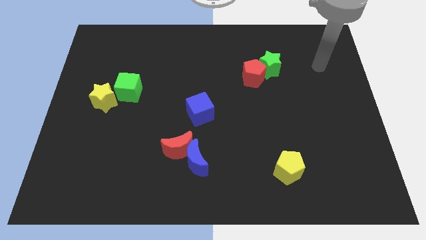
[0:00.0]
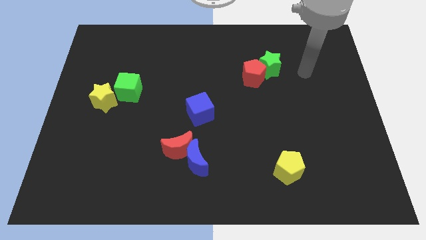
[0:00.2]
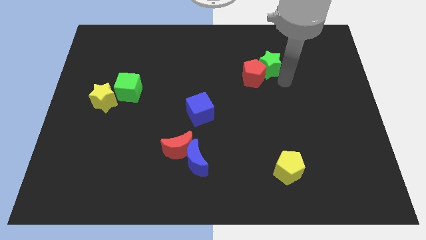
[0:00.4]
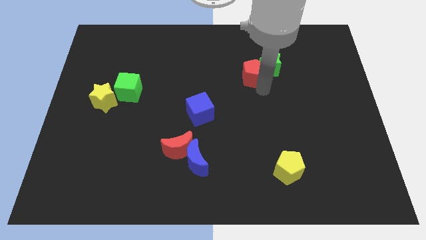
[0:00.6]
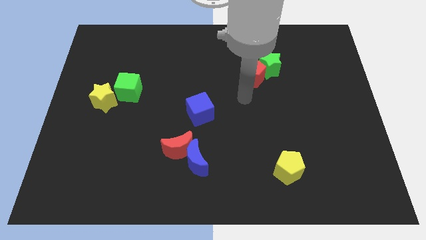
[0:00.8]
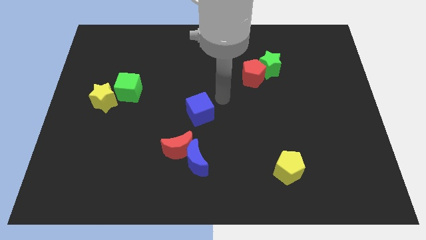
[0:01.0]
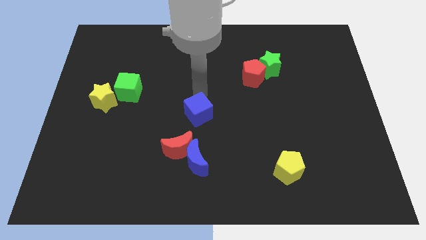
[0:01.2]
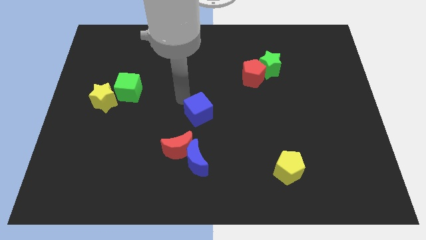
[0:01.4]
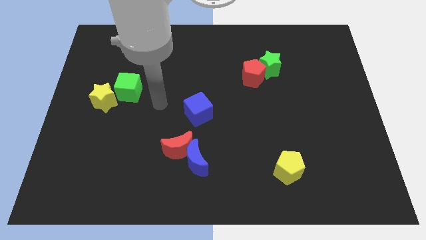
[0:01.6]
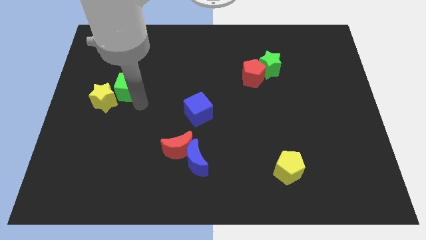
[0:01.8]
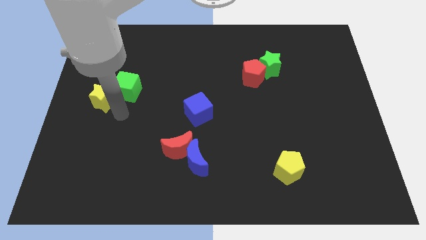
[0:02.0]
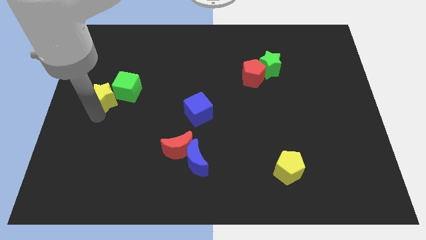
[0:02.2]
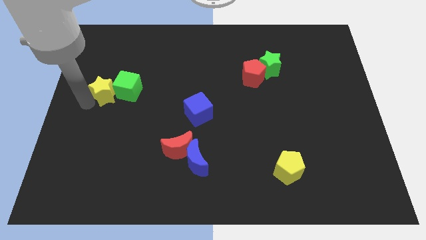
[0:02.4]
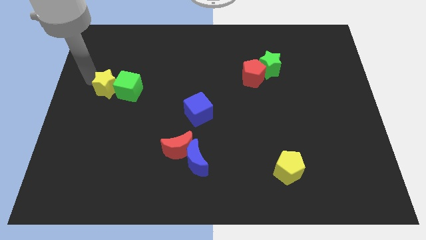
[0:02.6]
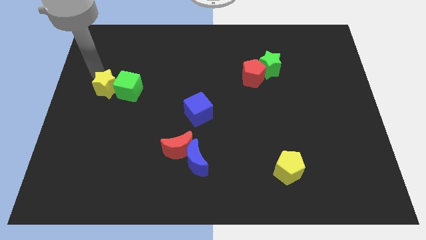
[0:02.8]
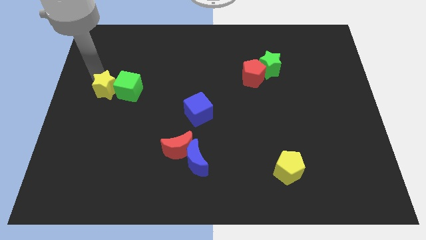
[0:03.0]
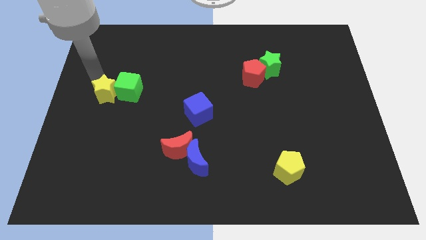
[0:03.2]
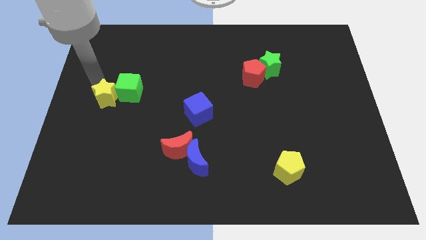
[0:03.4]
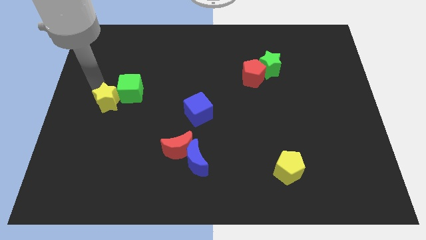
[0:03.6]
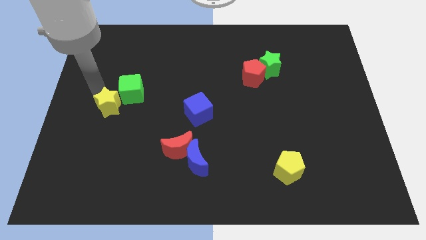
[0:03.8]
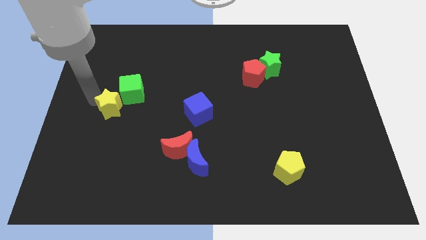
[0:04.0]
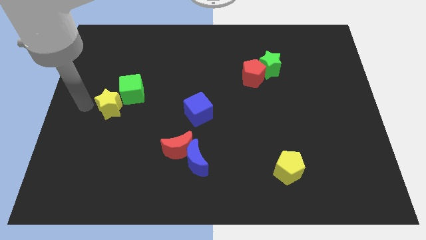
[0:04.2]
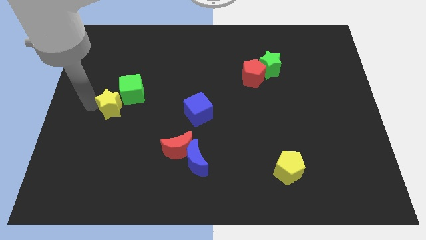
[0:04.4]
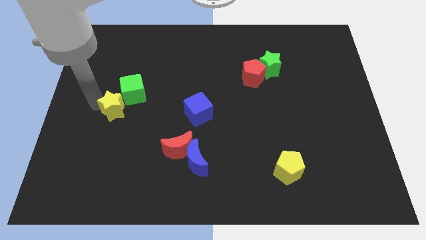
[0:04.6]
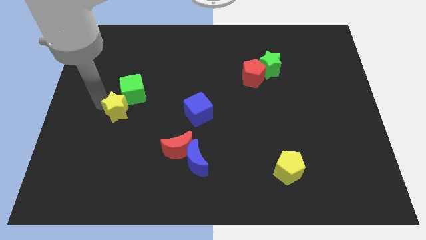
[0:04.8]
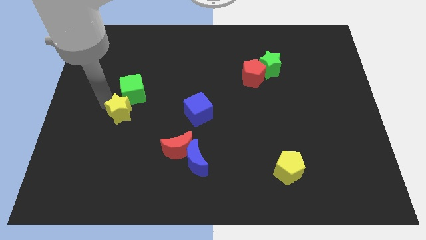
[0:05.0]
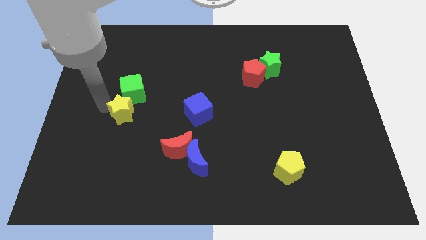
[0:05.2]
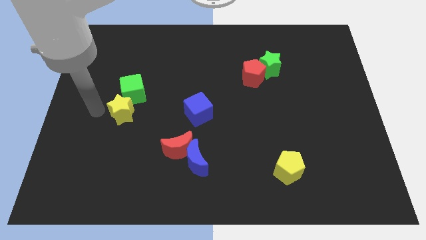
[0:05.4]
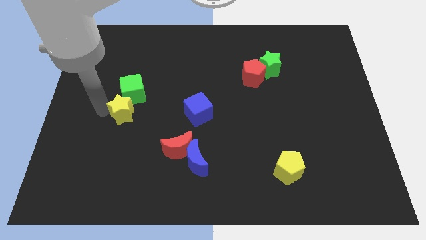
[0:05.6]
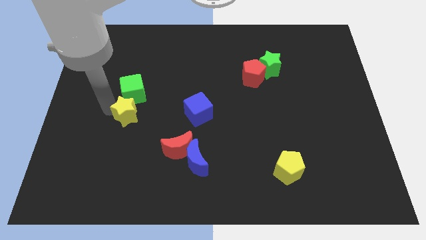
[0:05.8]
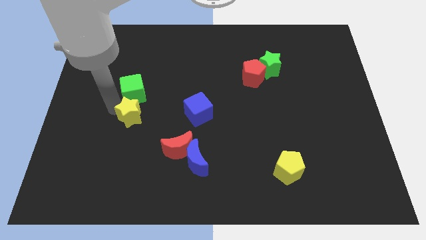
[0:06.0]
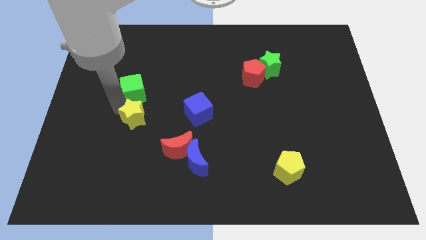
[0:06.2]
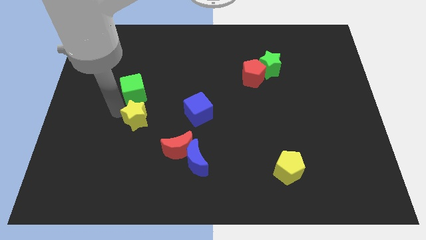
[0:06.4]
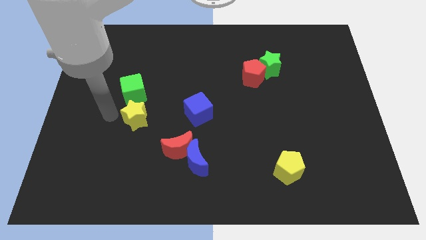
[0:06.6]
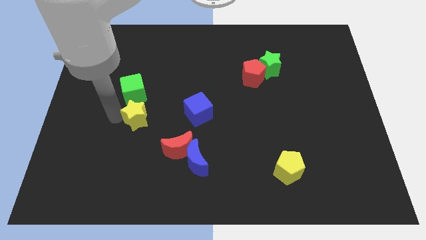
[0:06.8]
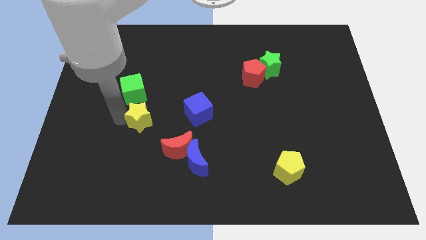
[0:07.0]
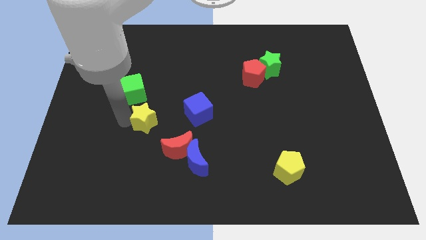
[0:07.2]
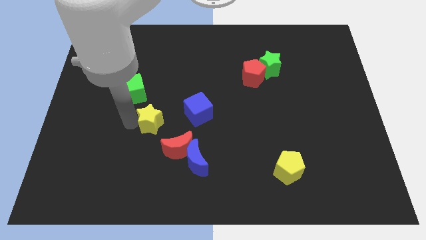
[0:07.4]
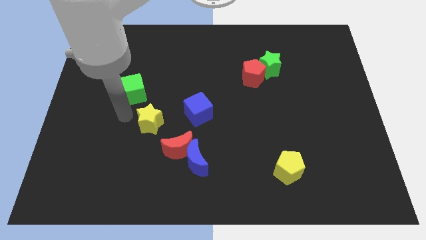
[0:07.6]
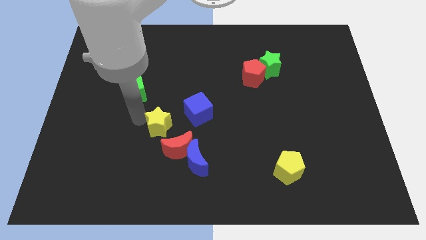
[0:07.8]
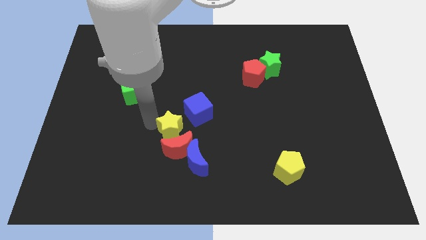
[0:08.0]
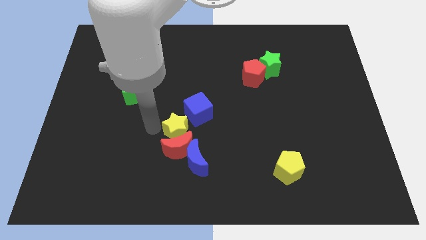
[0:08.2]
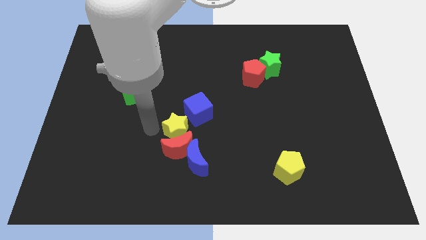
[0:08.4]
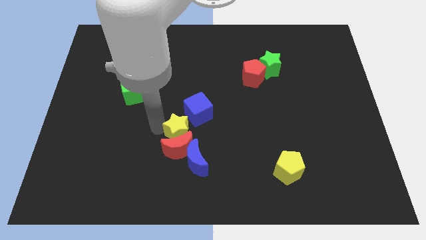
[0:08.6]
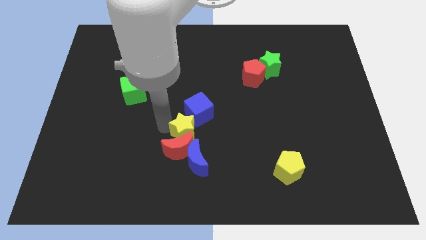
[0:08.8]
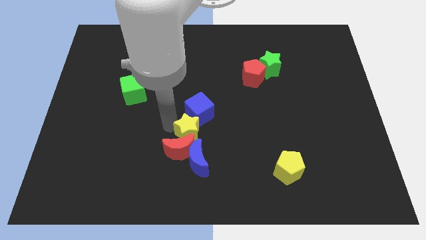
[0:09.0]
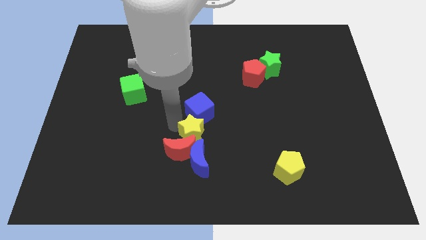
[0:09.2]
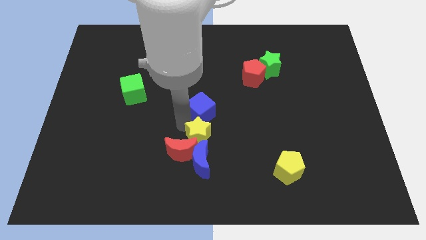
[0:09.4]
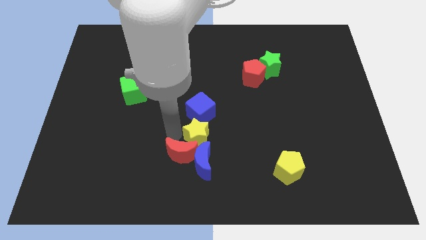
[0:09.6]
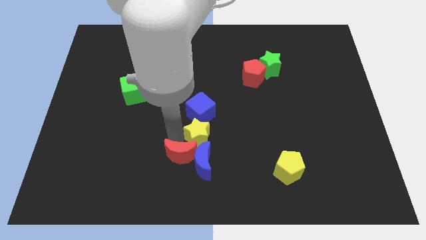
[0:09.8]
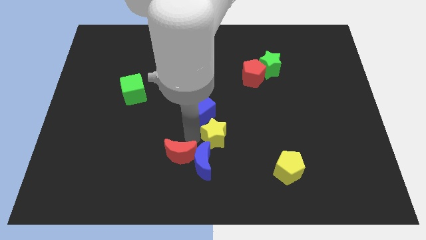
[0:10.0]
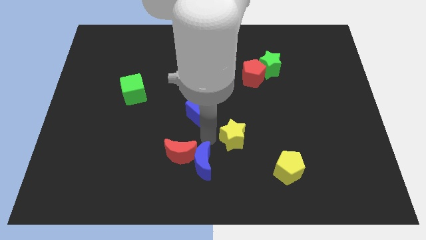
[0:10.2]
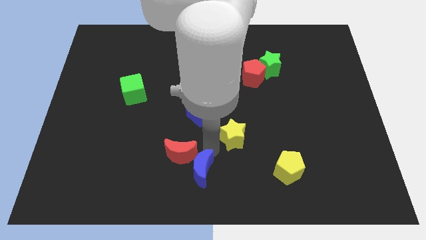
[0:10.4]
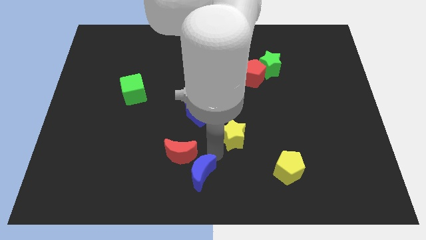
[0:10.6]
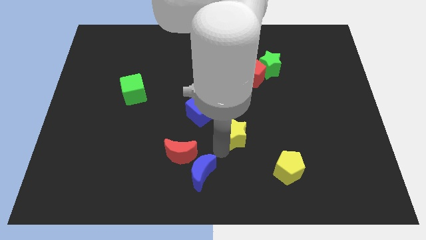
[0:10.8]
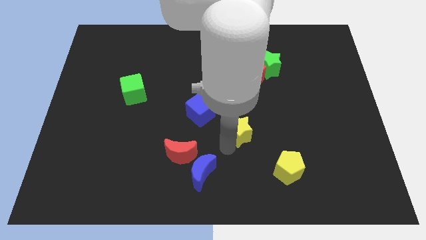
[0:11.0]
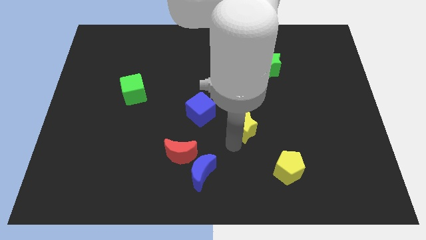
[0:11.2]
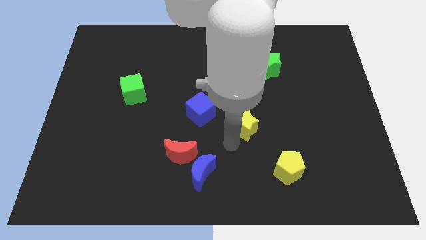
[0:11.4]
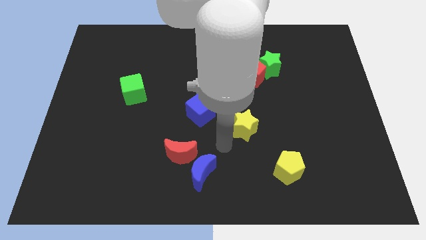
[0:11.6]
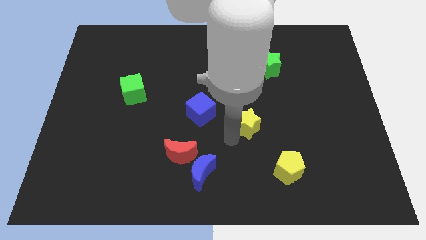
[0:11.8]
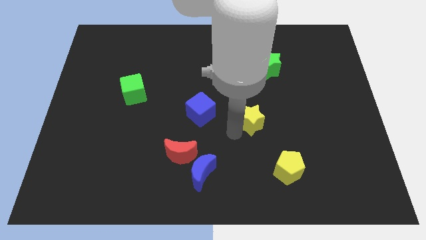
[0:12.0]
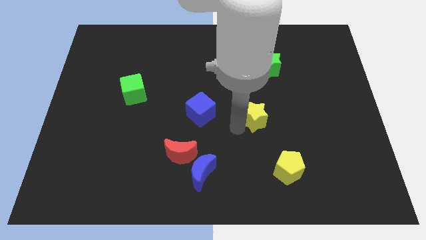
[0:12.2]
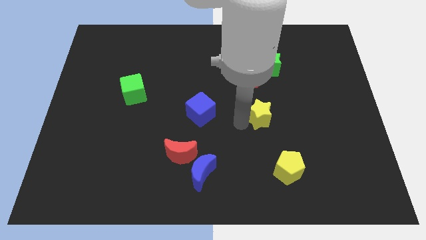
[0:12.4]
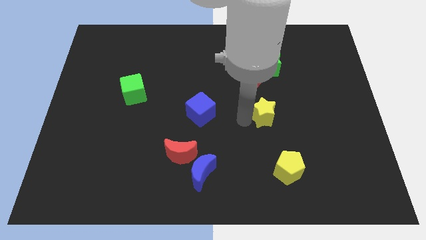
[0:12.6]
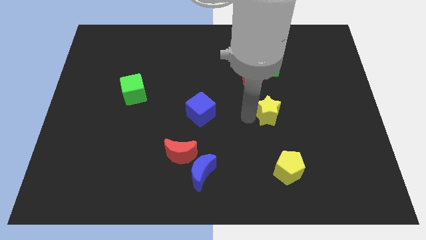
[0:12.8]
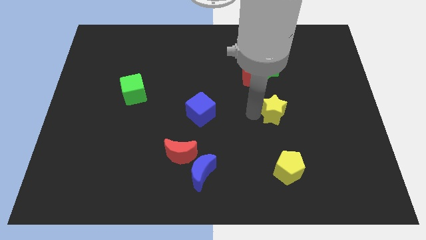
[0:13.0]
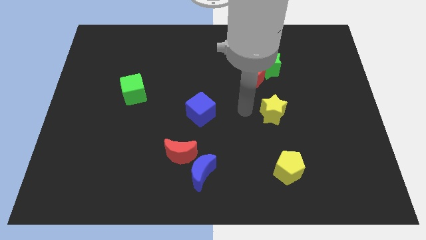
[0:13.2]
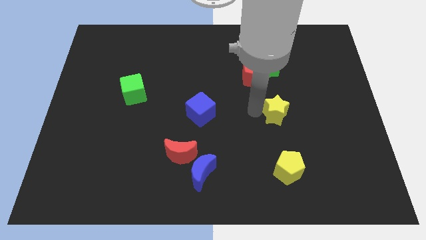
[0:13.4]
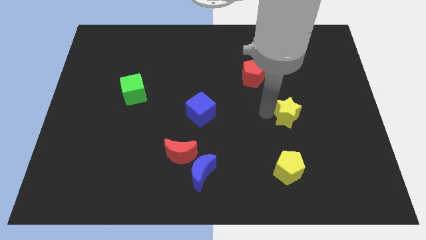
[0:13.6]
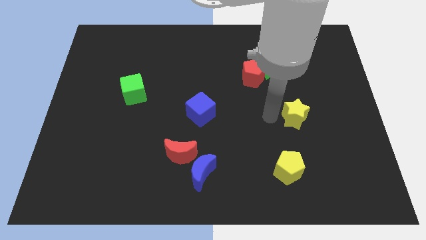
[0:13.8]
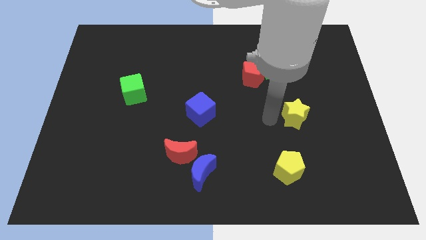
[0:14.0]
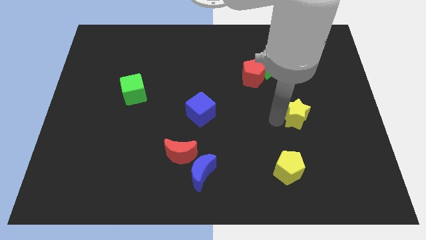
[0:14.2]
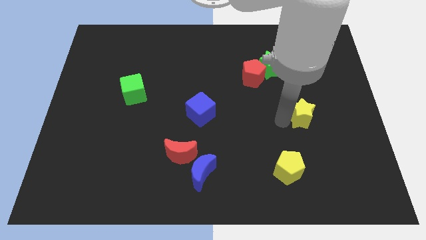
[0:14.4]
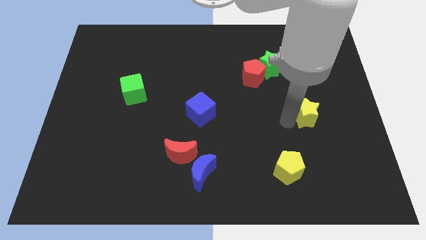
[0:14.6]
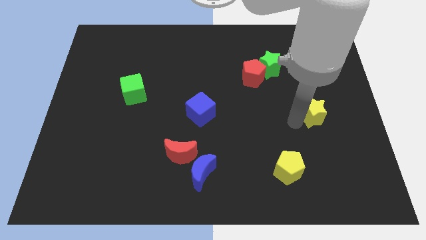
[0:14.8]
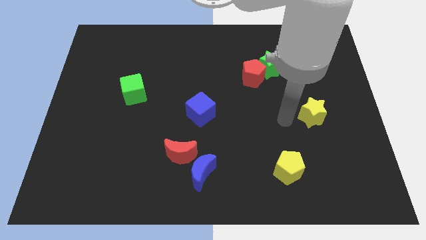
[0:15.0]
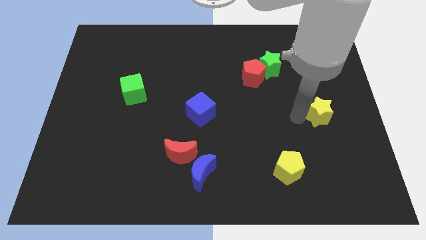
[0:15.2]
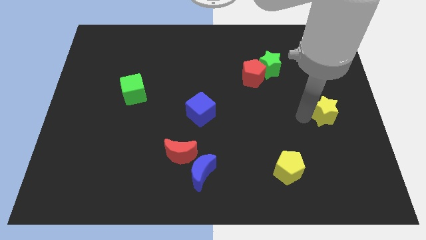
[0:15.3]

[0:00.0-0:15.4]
put the yellow star to the center right

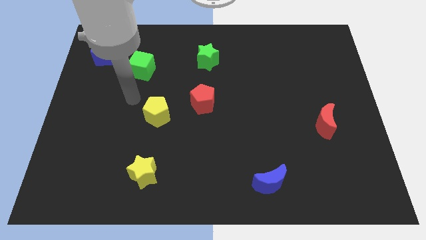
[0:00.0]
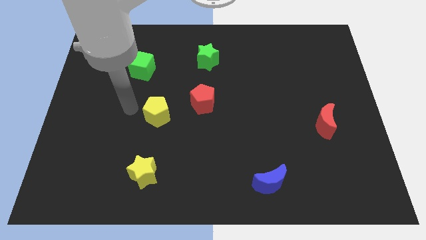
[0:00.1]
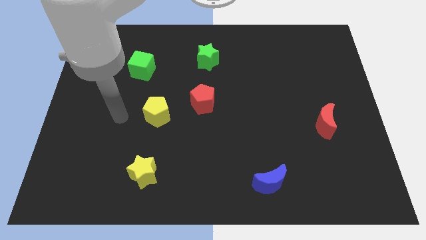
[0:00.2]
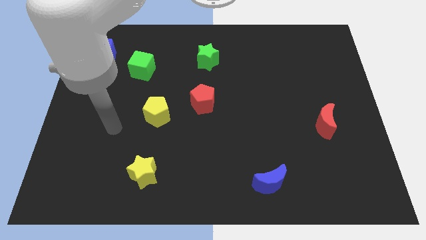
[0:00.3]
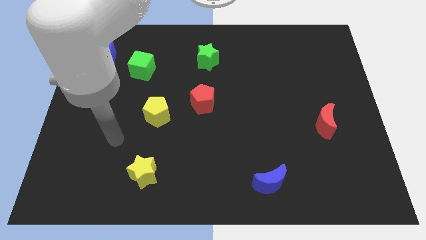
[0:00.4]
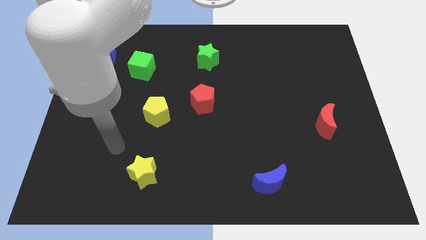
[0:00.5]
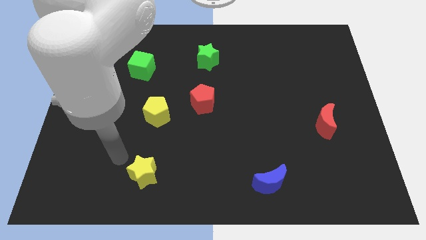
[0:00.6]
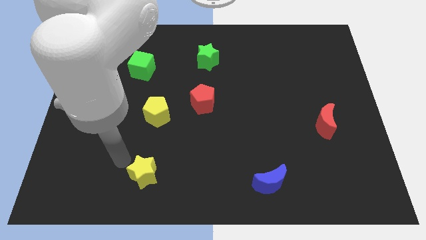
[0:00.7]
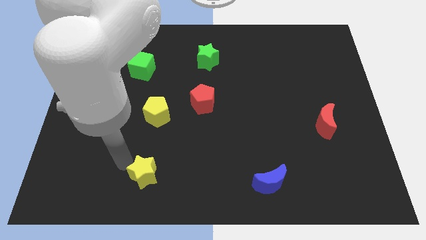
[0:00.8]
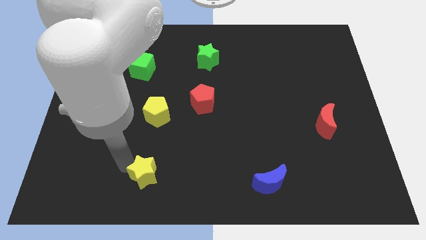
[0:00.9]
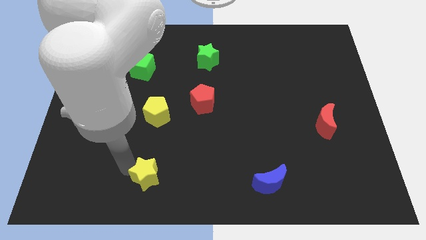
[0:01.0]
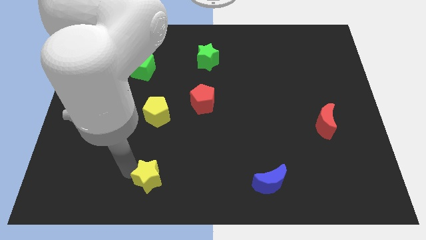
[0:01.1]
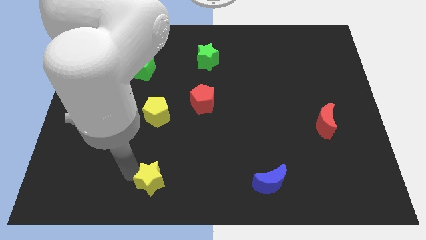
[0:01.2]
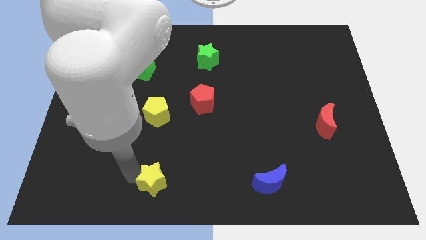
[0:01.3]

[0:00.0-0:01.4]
push the yellow star to the bottom
